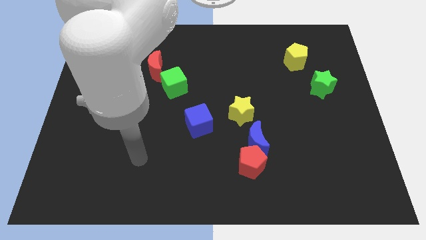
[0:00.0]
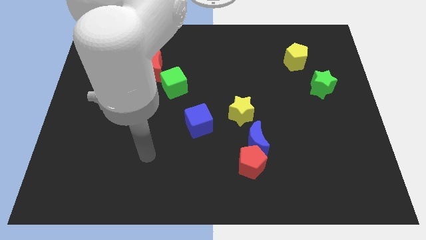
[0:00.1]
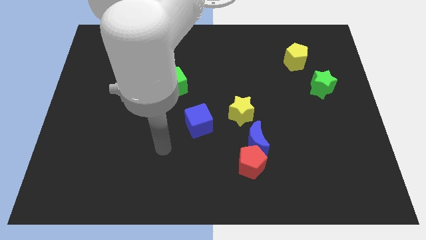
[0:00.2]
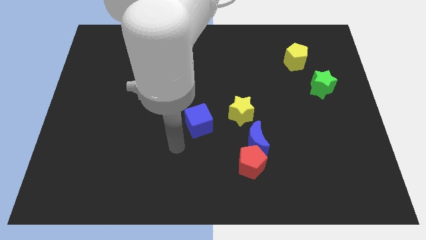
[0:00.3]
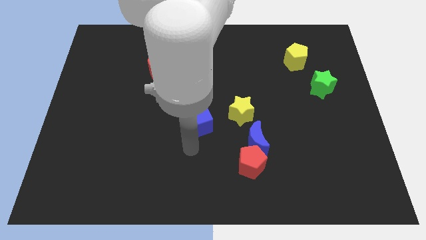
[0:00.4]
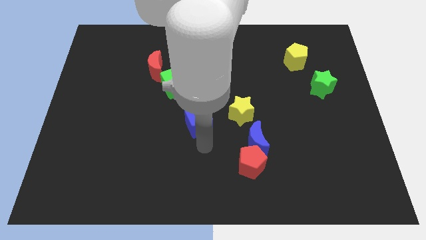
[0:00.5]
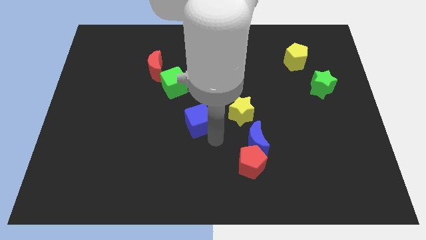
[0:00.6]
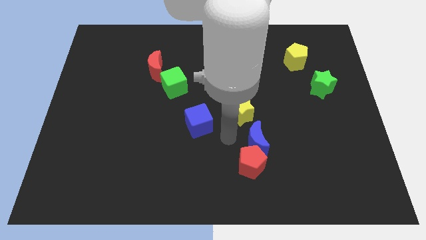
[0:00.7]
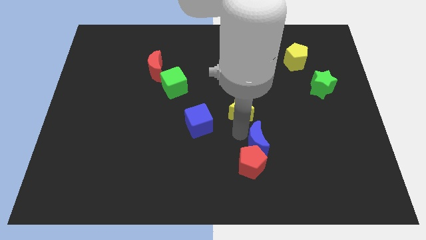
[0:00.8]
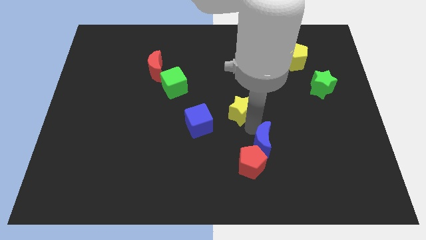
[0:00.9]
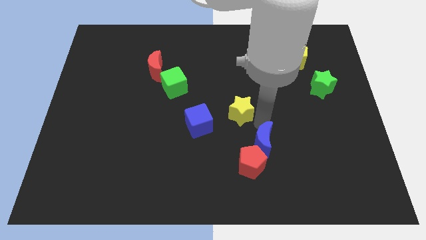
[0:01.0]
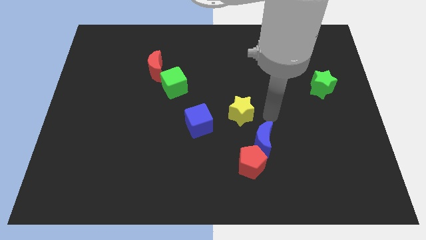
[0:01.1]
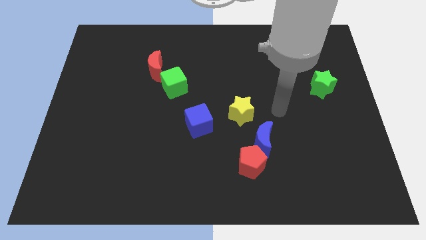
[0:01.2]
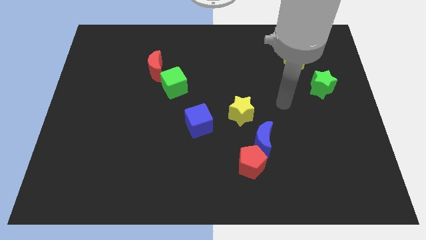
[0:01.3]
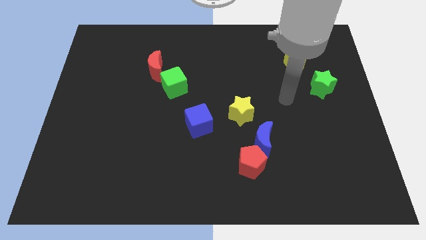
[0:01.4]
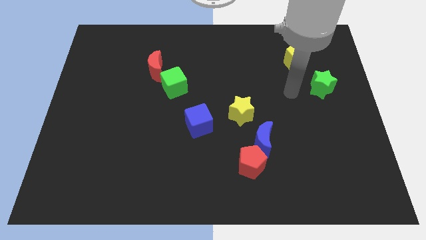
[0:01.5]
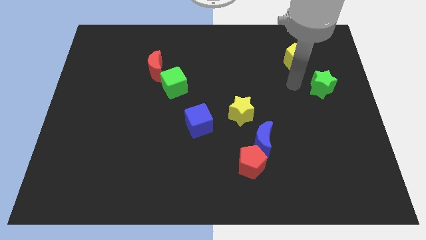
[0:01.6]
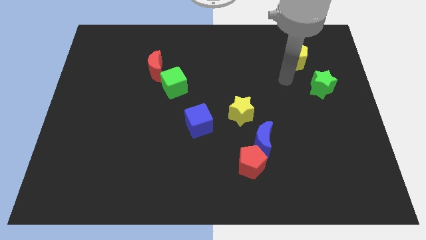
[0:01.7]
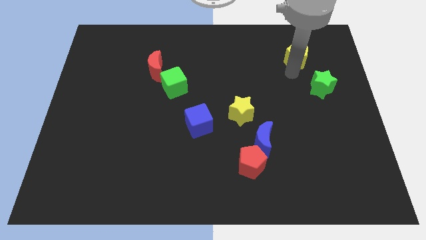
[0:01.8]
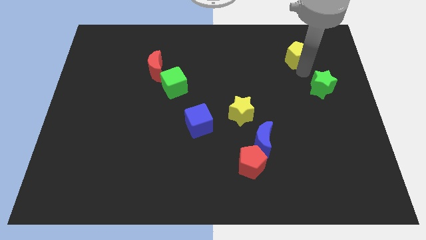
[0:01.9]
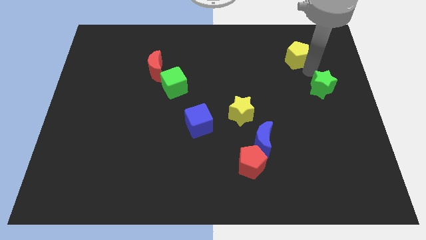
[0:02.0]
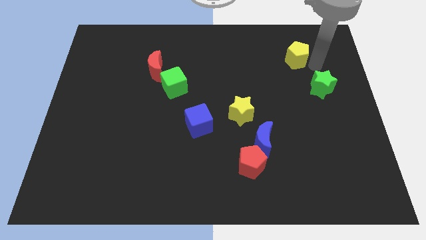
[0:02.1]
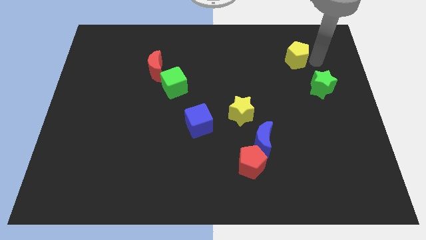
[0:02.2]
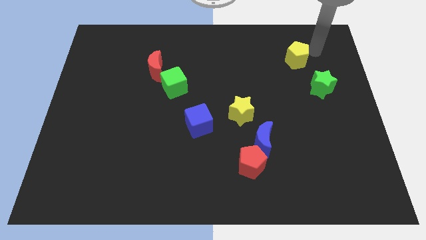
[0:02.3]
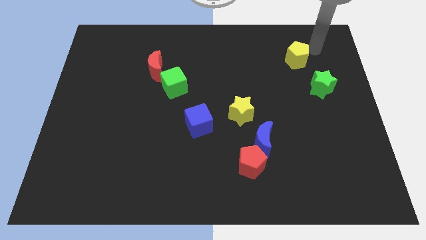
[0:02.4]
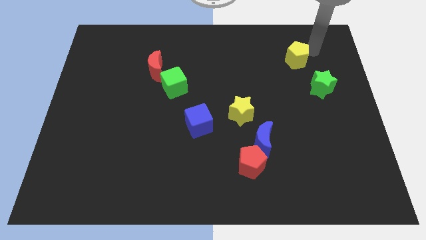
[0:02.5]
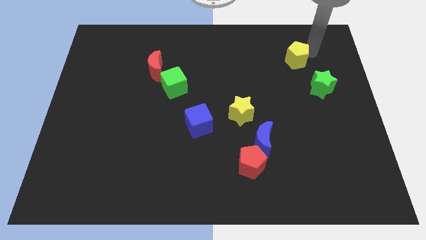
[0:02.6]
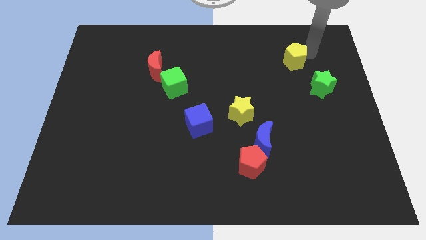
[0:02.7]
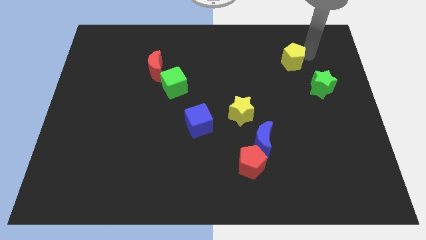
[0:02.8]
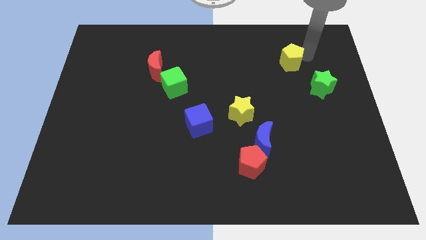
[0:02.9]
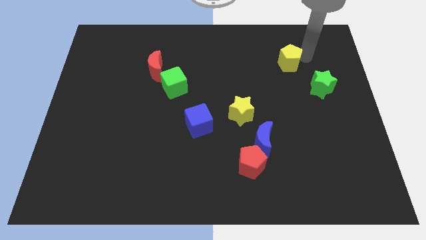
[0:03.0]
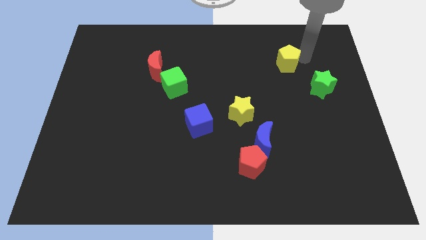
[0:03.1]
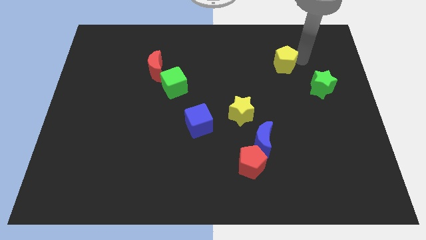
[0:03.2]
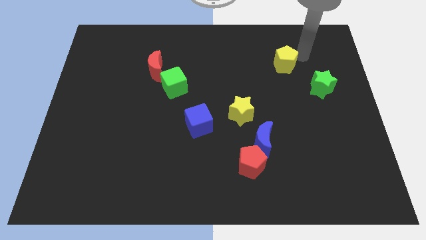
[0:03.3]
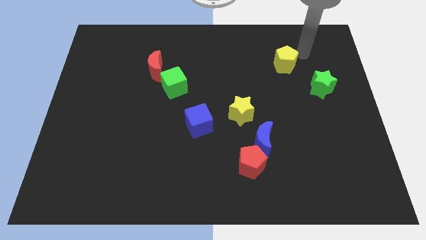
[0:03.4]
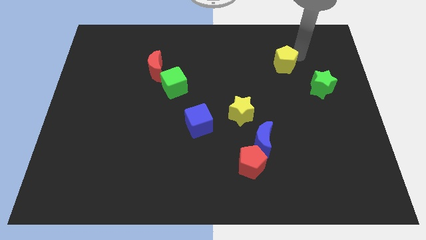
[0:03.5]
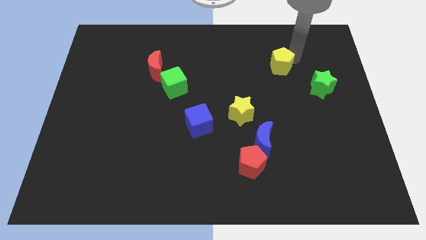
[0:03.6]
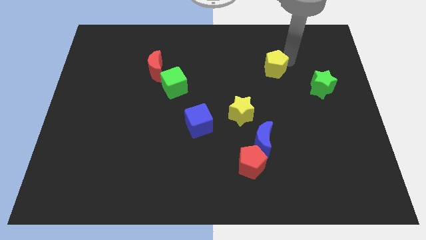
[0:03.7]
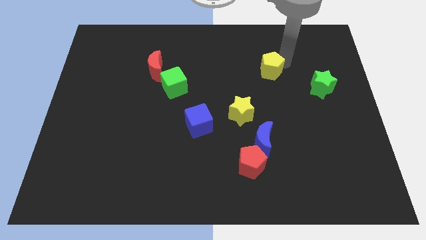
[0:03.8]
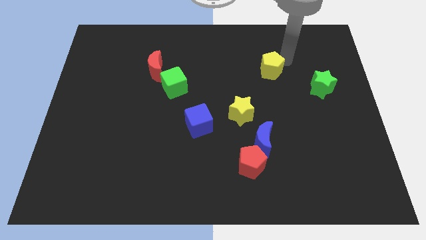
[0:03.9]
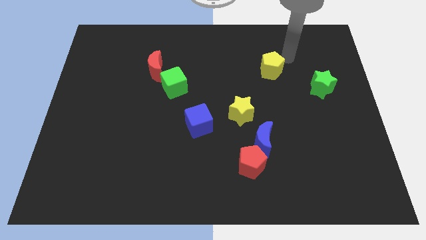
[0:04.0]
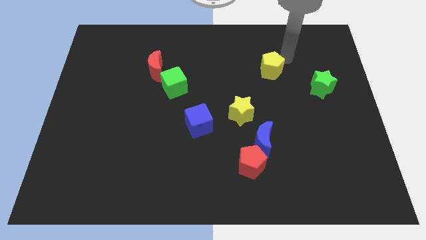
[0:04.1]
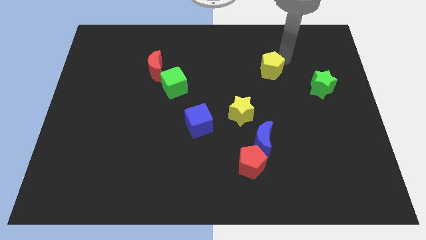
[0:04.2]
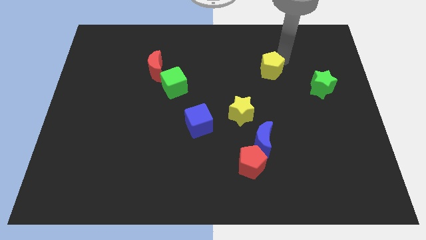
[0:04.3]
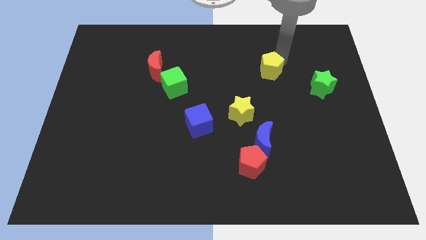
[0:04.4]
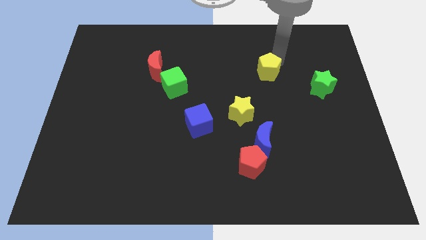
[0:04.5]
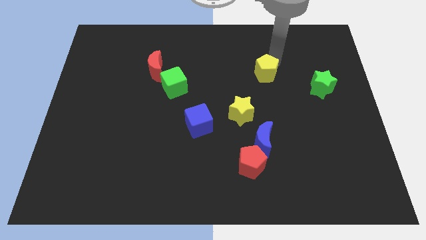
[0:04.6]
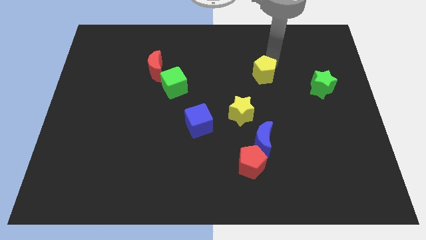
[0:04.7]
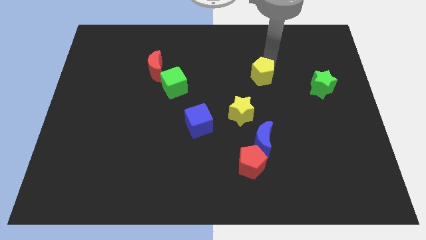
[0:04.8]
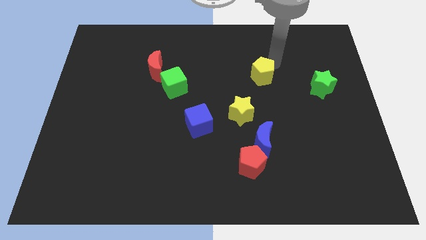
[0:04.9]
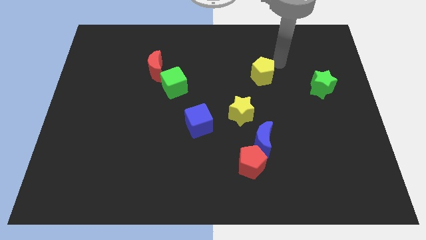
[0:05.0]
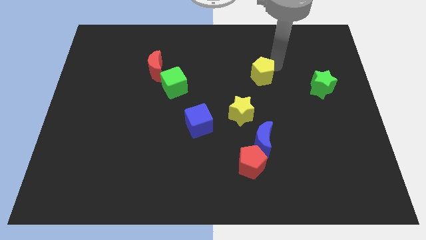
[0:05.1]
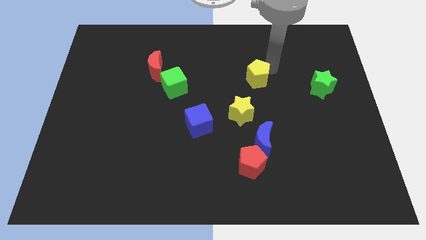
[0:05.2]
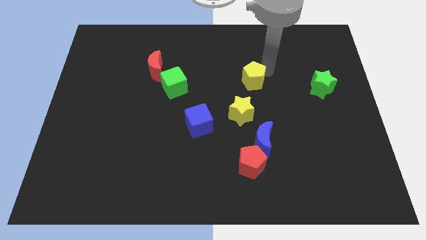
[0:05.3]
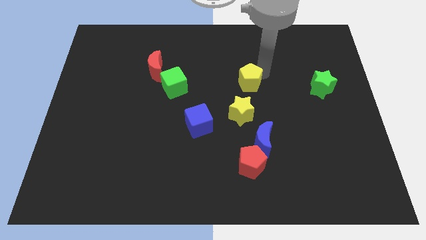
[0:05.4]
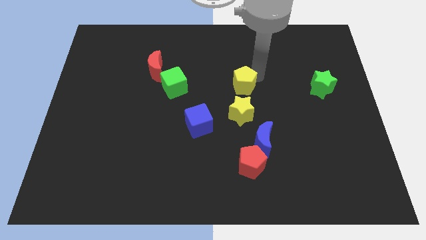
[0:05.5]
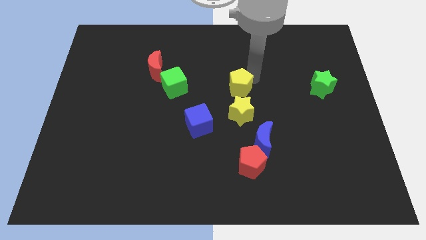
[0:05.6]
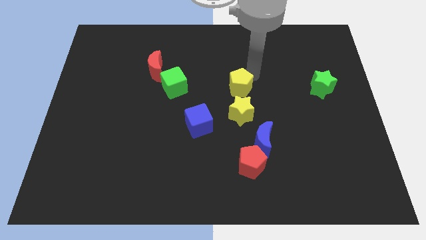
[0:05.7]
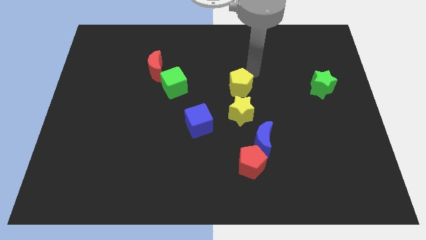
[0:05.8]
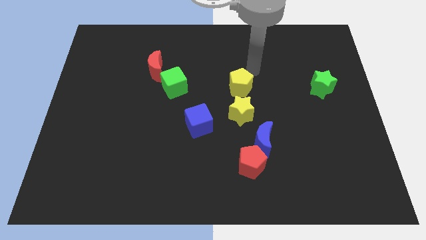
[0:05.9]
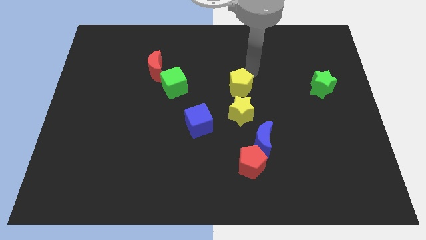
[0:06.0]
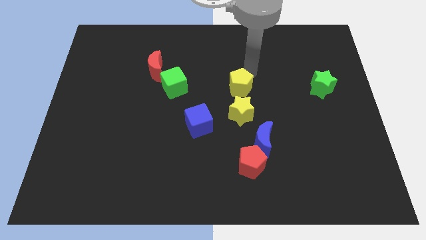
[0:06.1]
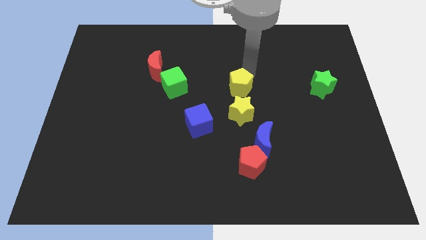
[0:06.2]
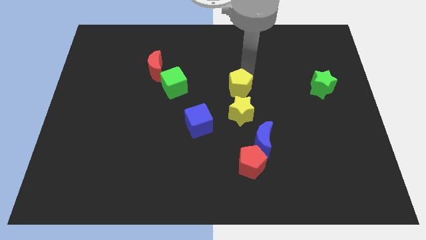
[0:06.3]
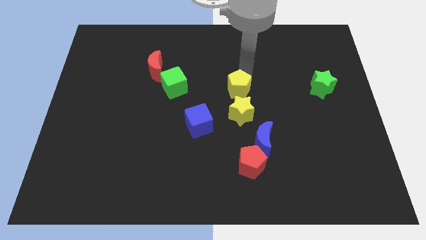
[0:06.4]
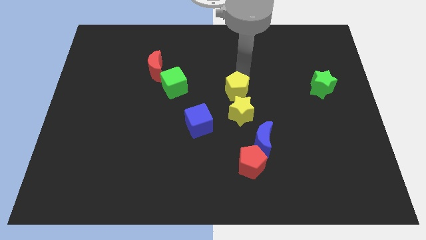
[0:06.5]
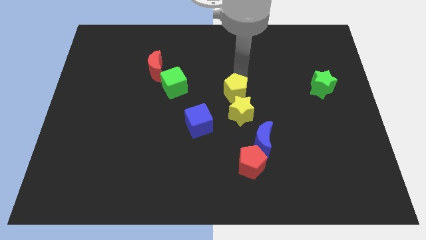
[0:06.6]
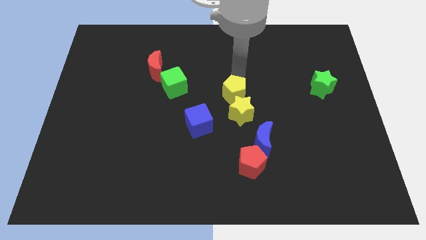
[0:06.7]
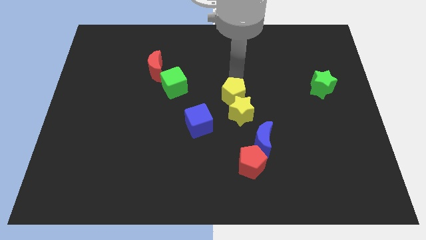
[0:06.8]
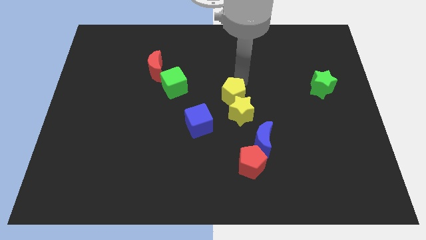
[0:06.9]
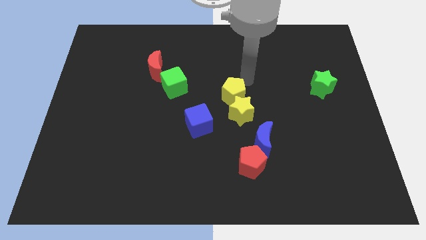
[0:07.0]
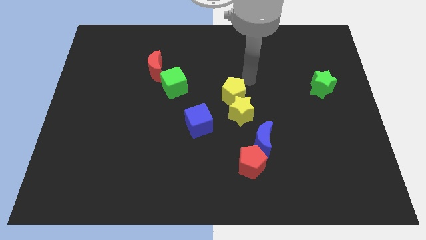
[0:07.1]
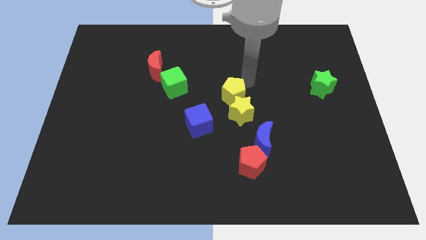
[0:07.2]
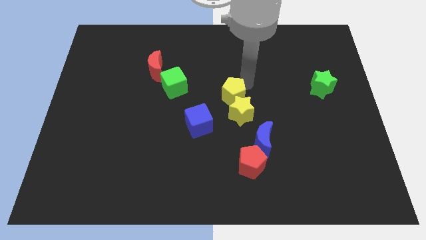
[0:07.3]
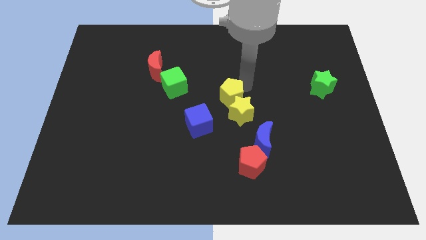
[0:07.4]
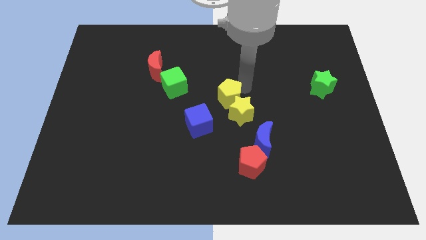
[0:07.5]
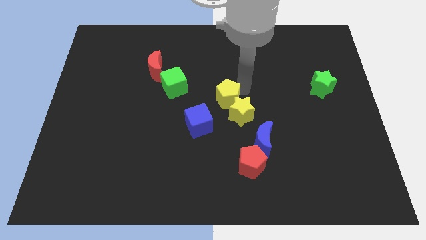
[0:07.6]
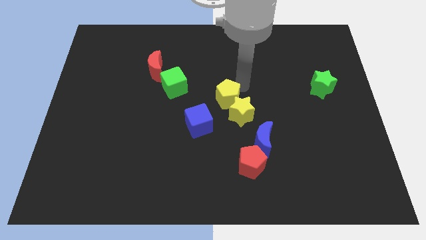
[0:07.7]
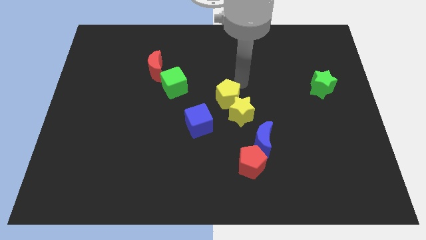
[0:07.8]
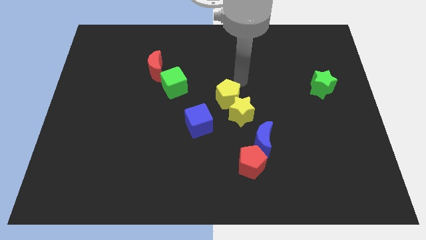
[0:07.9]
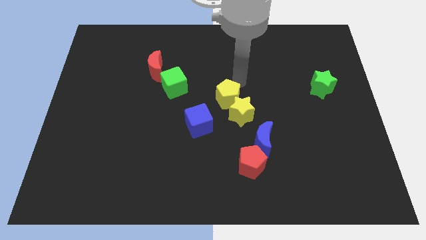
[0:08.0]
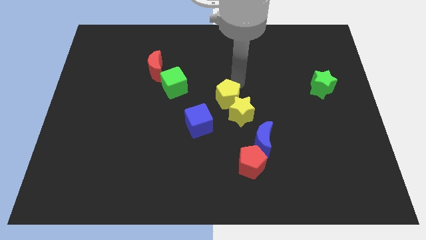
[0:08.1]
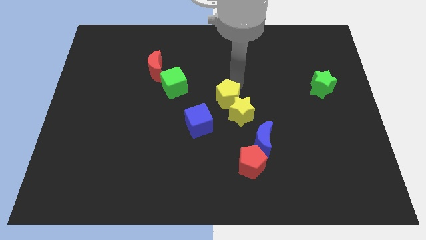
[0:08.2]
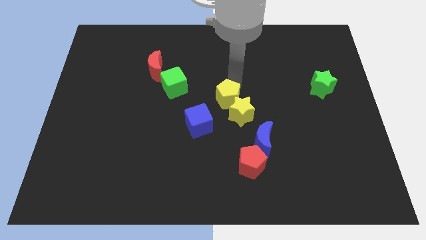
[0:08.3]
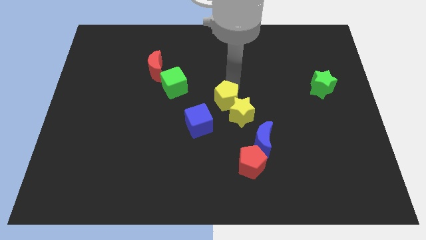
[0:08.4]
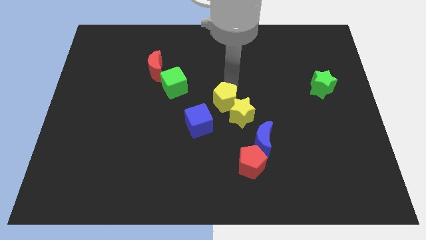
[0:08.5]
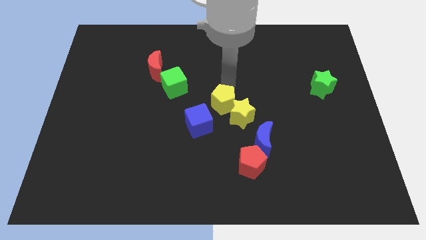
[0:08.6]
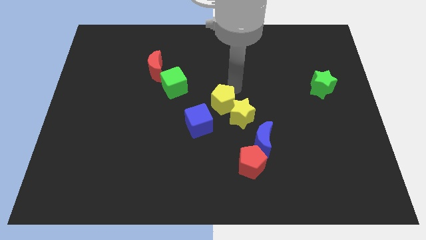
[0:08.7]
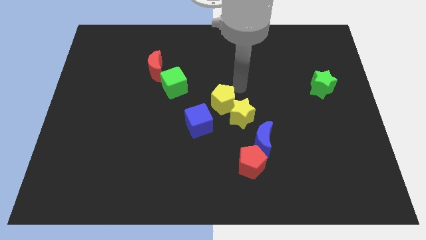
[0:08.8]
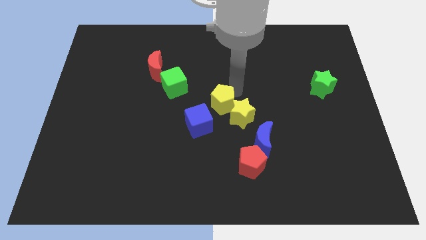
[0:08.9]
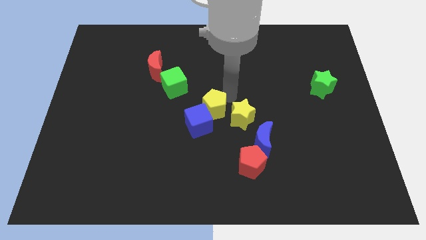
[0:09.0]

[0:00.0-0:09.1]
push the yellow pentagon towards the blue cube
